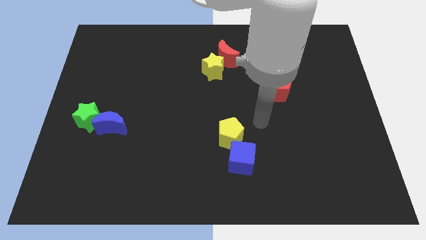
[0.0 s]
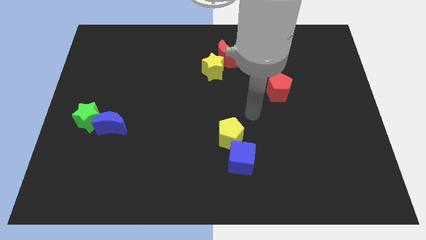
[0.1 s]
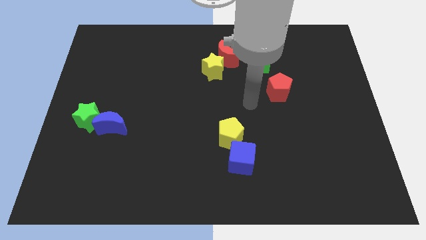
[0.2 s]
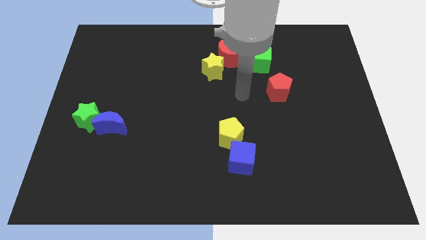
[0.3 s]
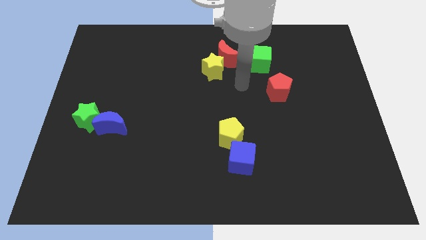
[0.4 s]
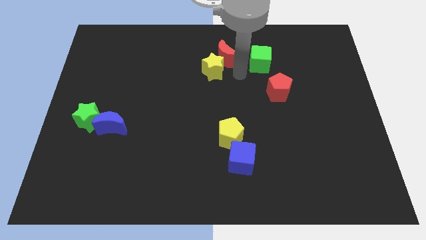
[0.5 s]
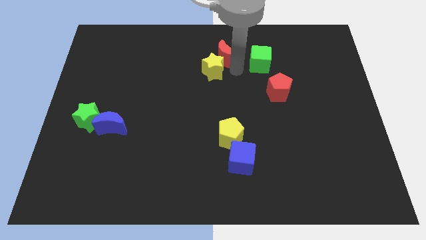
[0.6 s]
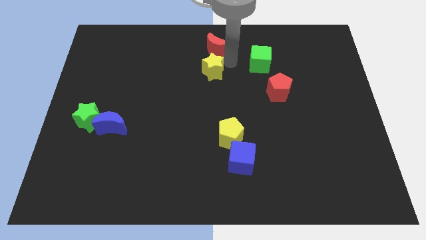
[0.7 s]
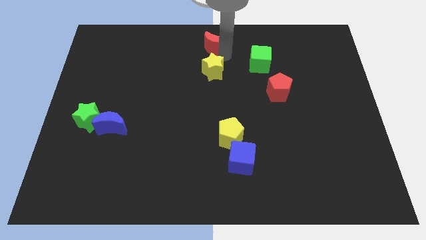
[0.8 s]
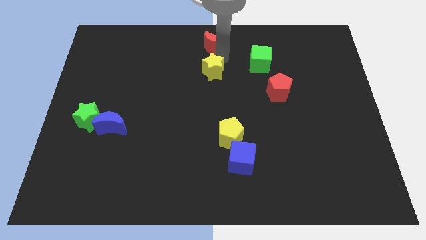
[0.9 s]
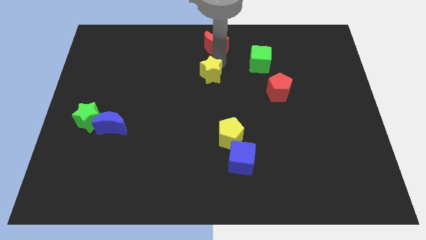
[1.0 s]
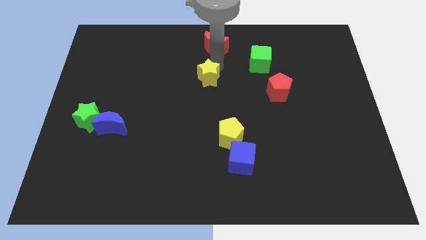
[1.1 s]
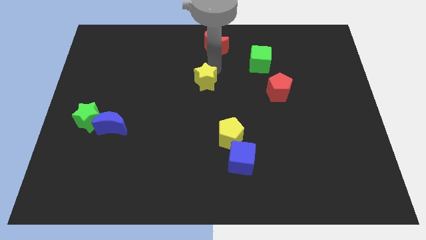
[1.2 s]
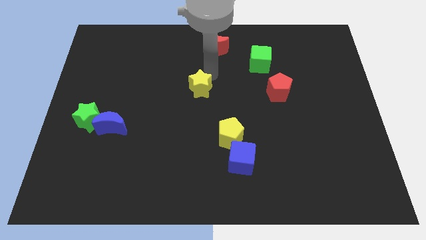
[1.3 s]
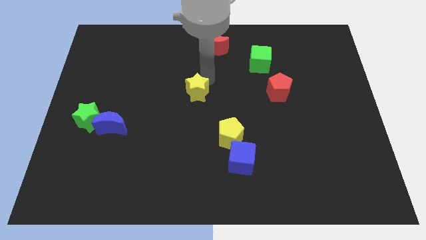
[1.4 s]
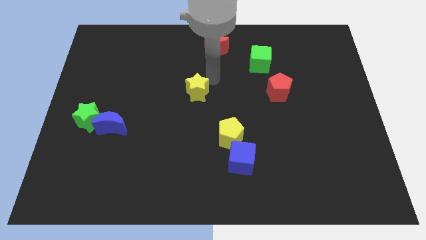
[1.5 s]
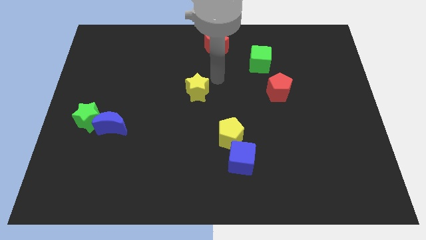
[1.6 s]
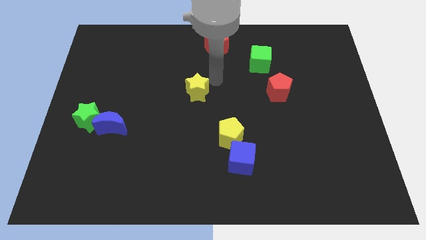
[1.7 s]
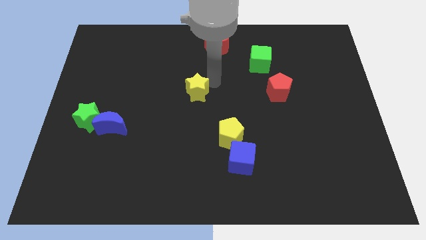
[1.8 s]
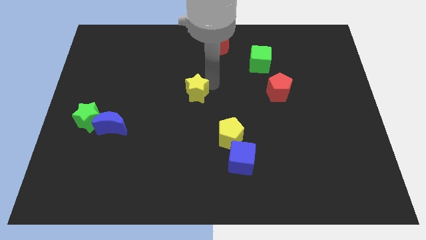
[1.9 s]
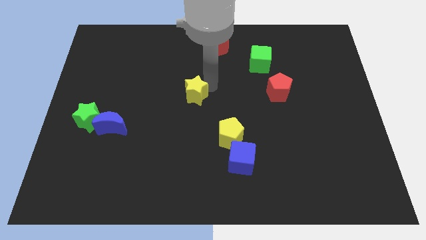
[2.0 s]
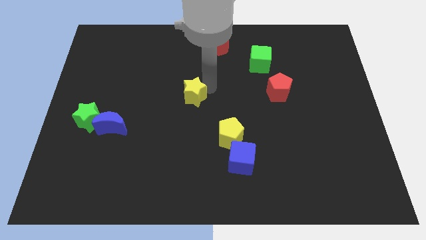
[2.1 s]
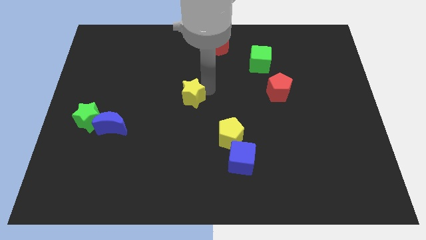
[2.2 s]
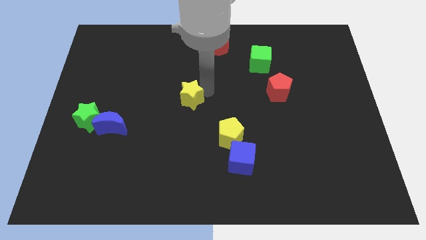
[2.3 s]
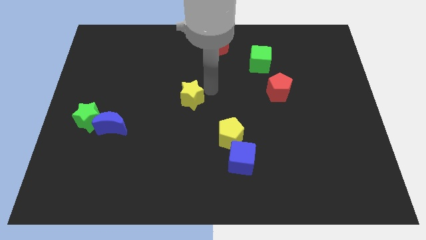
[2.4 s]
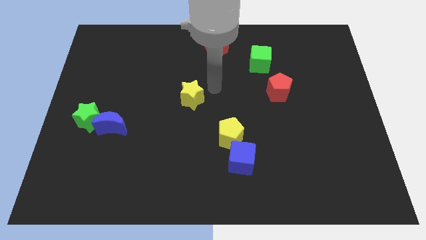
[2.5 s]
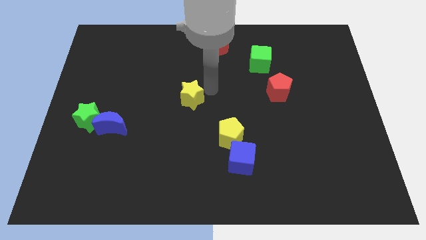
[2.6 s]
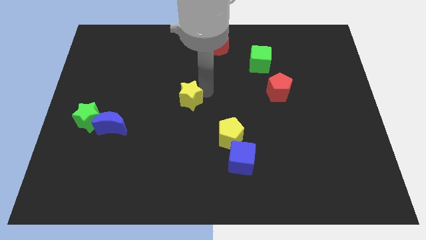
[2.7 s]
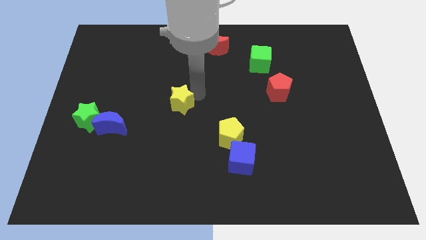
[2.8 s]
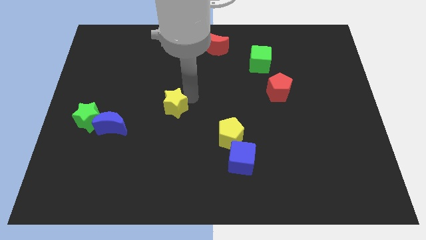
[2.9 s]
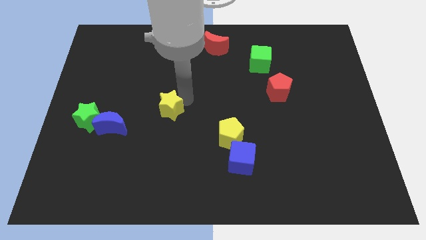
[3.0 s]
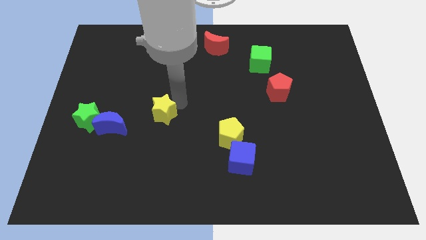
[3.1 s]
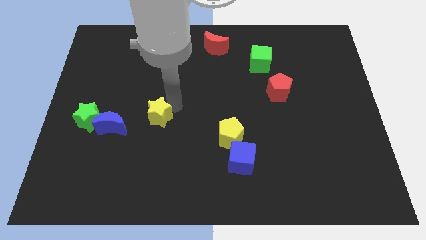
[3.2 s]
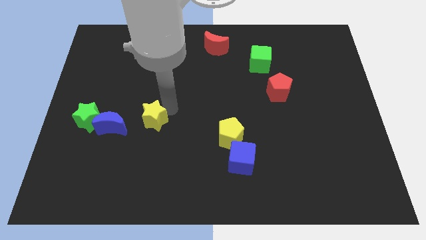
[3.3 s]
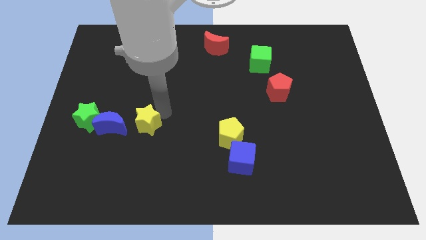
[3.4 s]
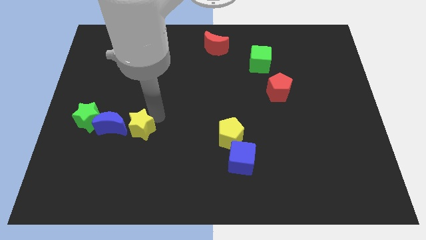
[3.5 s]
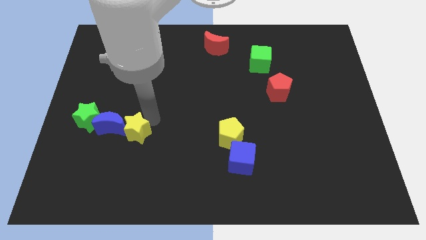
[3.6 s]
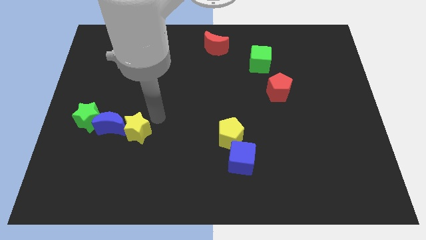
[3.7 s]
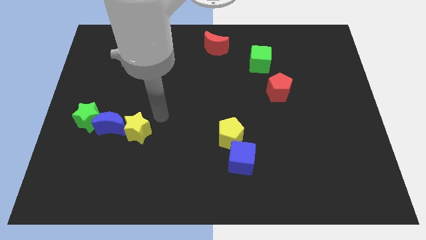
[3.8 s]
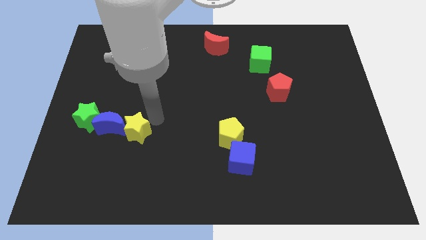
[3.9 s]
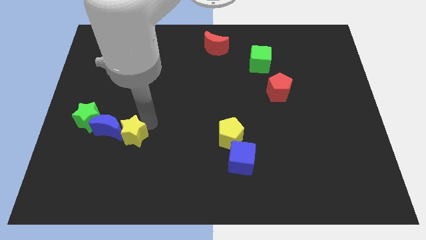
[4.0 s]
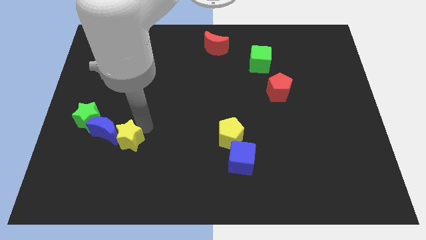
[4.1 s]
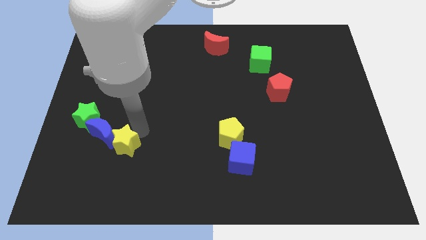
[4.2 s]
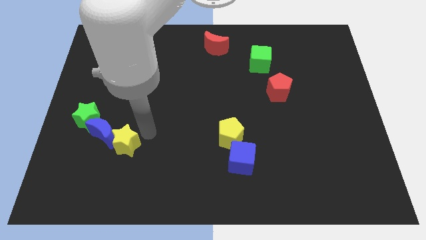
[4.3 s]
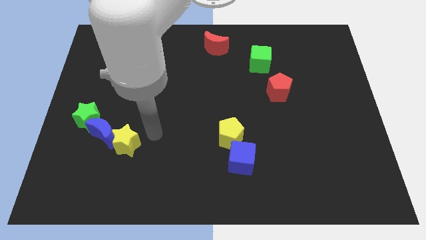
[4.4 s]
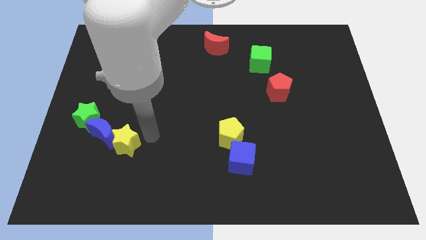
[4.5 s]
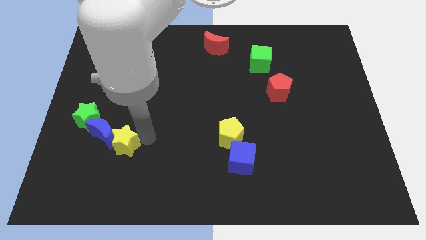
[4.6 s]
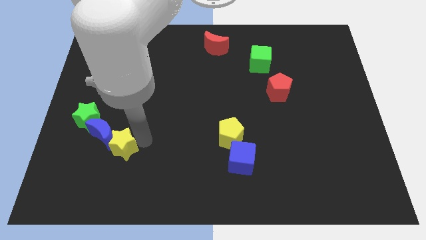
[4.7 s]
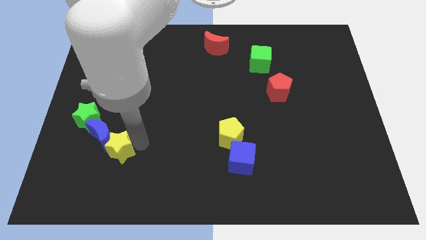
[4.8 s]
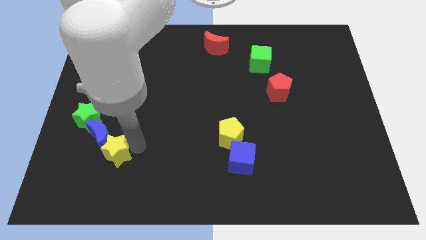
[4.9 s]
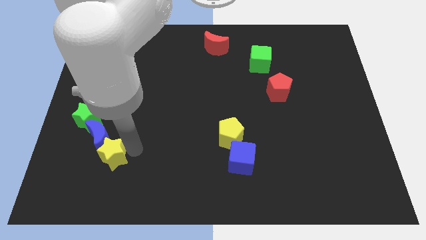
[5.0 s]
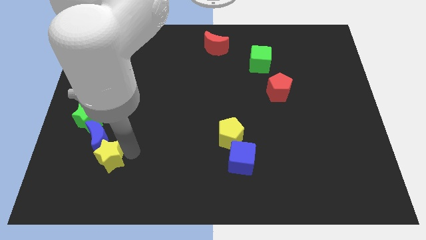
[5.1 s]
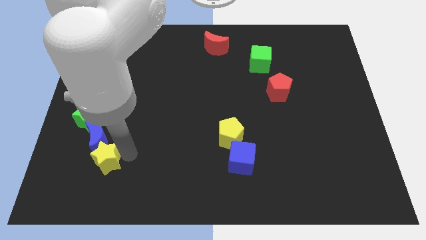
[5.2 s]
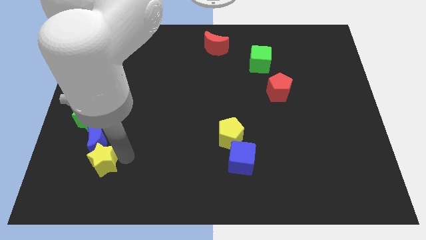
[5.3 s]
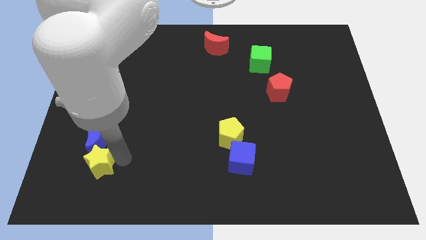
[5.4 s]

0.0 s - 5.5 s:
push the yellow star to the bottom of the green star

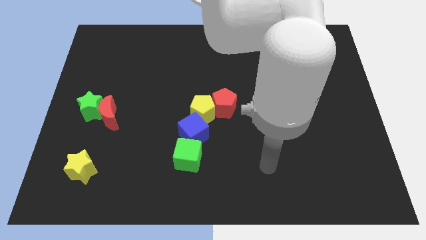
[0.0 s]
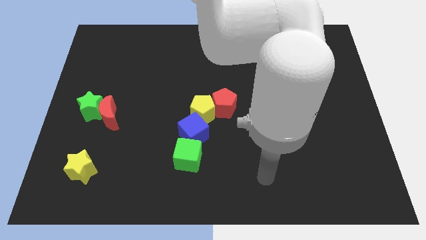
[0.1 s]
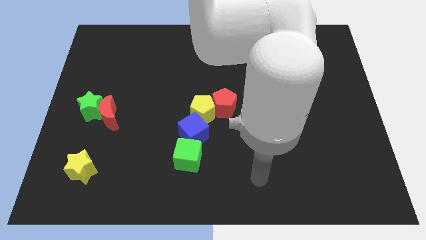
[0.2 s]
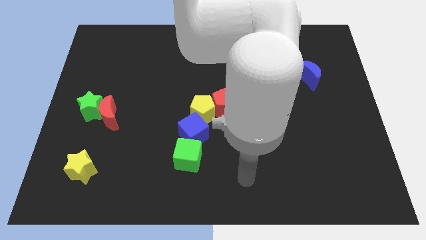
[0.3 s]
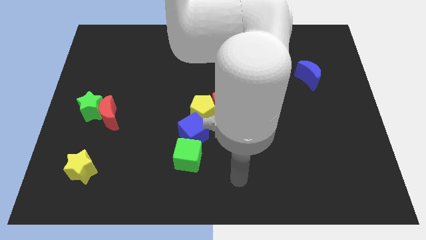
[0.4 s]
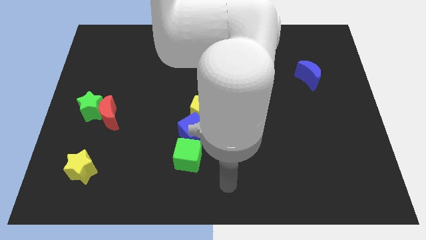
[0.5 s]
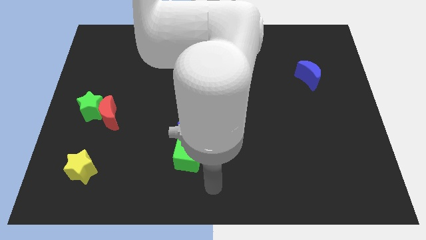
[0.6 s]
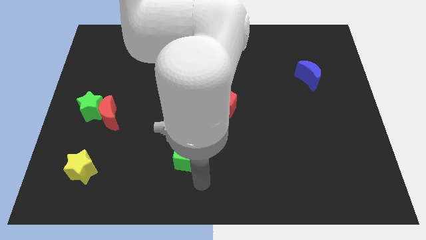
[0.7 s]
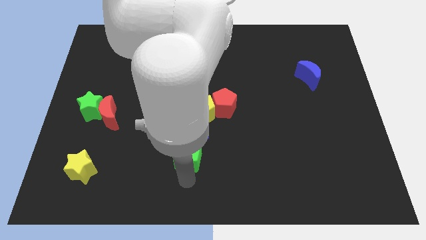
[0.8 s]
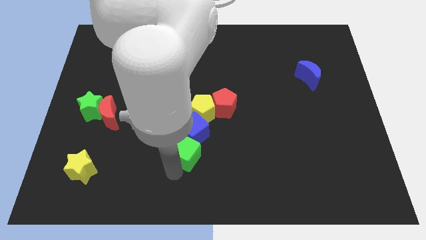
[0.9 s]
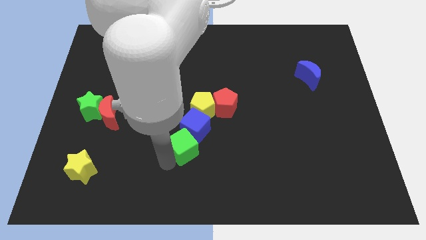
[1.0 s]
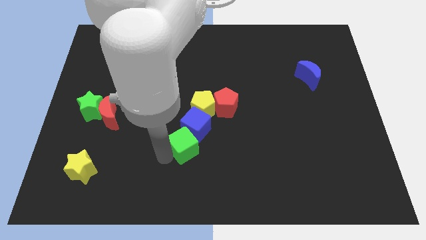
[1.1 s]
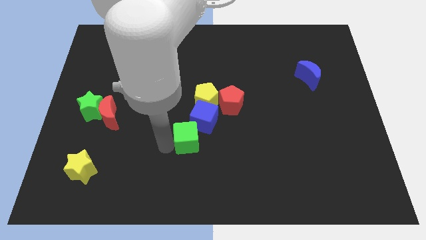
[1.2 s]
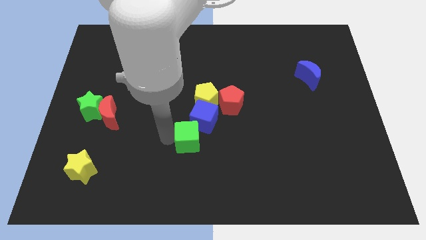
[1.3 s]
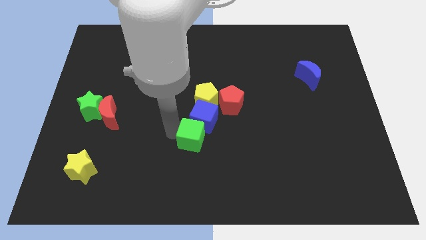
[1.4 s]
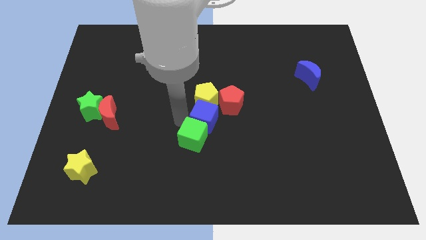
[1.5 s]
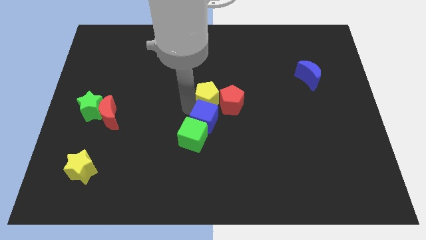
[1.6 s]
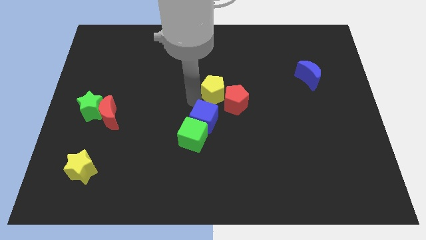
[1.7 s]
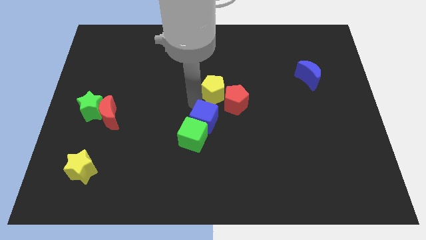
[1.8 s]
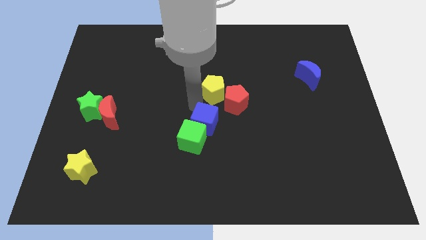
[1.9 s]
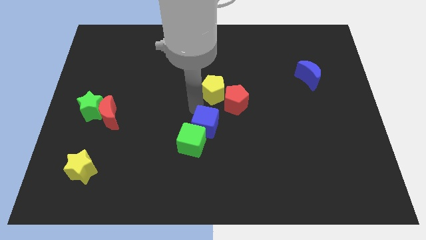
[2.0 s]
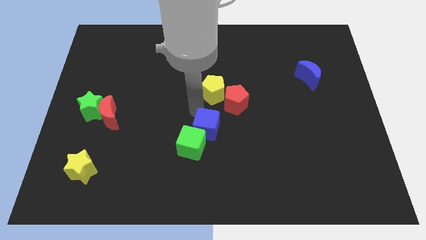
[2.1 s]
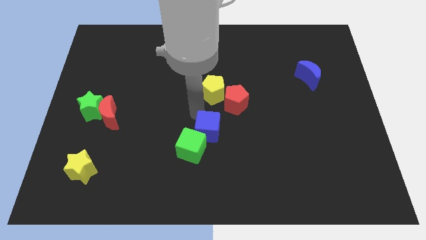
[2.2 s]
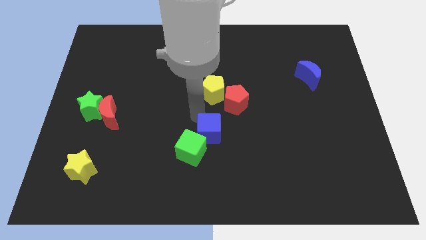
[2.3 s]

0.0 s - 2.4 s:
put the blue cube just right of the green cube
